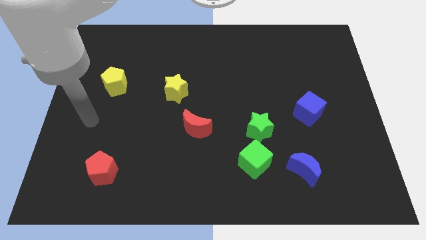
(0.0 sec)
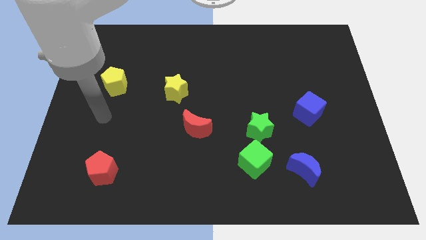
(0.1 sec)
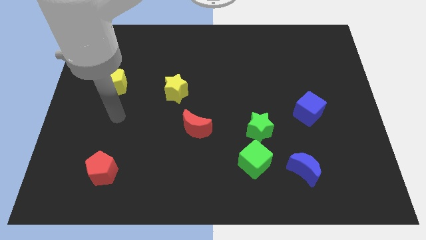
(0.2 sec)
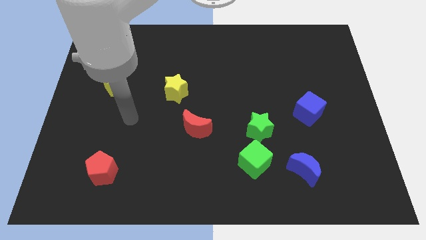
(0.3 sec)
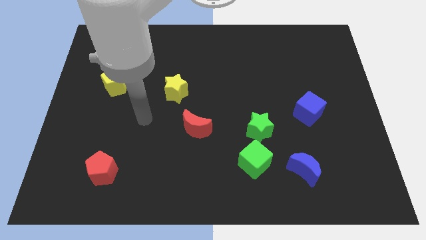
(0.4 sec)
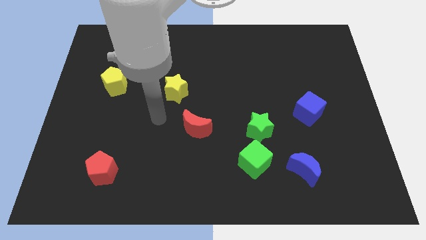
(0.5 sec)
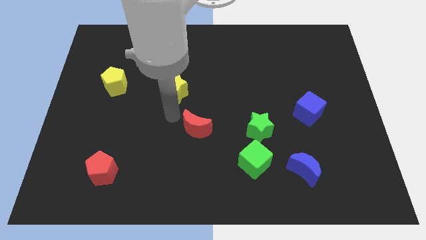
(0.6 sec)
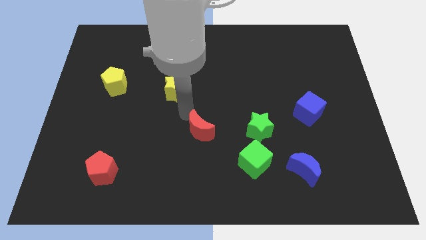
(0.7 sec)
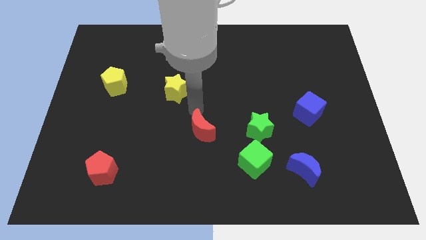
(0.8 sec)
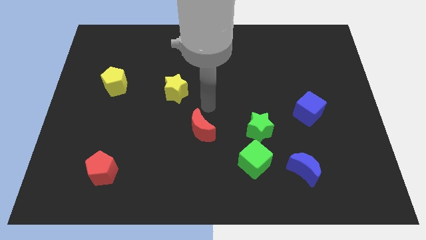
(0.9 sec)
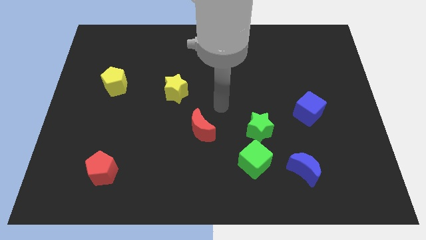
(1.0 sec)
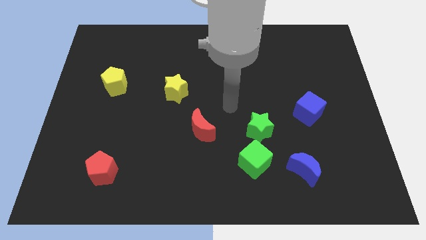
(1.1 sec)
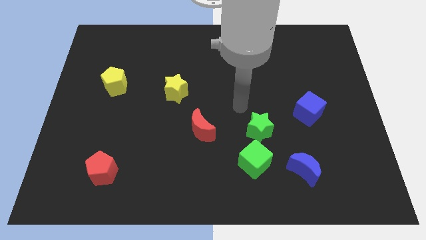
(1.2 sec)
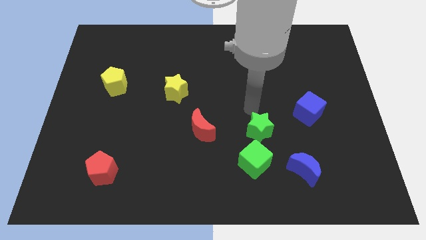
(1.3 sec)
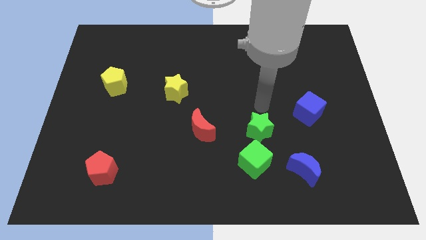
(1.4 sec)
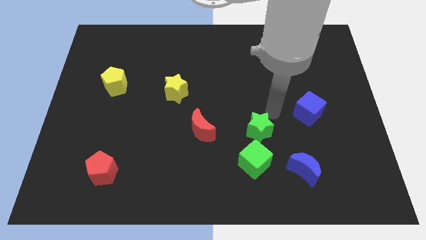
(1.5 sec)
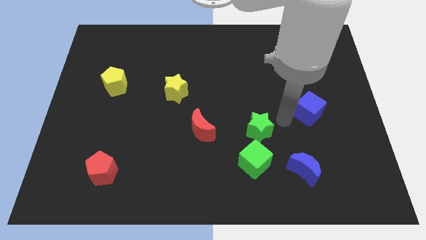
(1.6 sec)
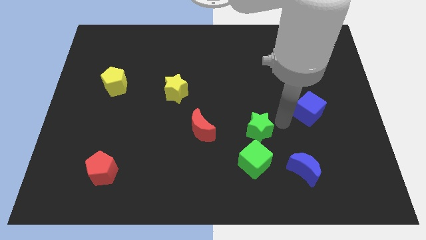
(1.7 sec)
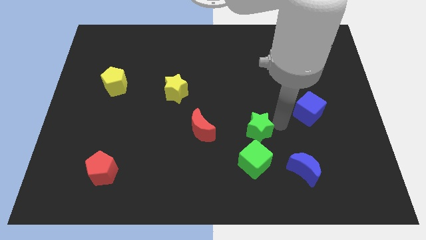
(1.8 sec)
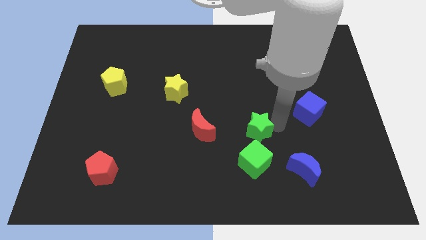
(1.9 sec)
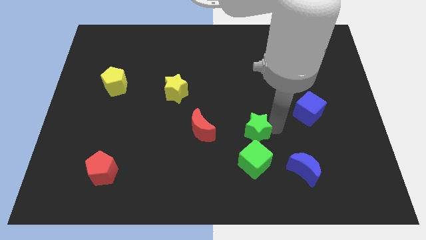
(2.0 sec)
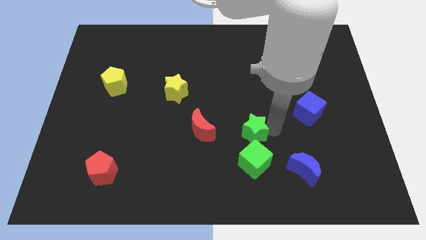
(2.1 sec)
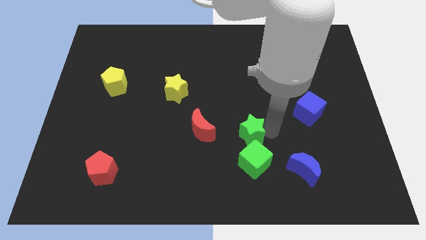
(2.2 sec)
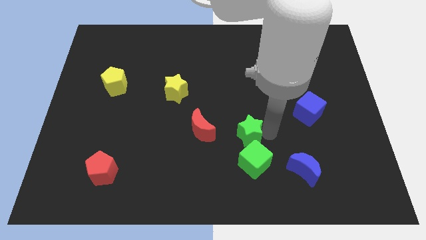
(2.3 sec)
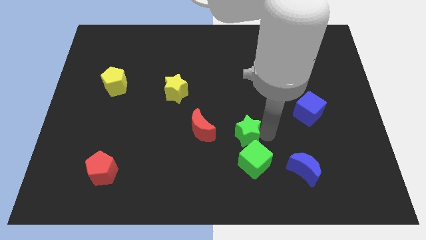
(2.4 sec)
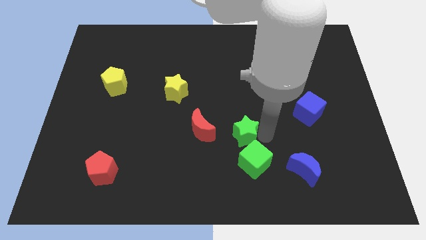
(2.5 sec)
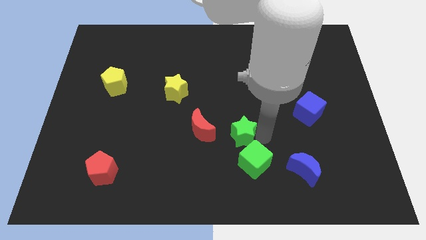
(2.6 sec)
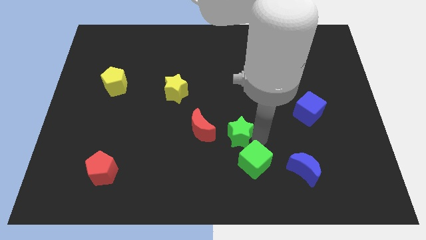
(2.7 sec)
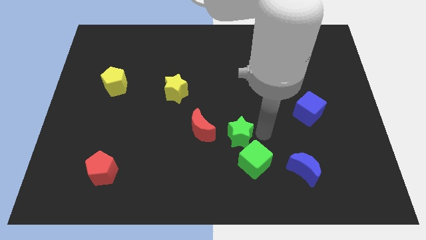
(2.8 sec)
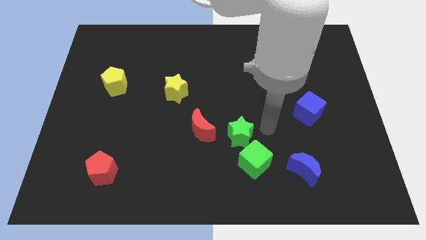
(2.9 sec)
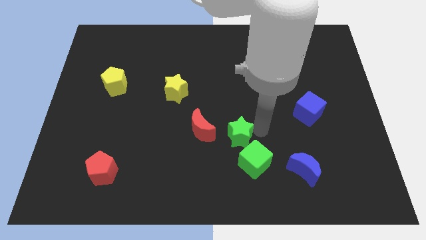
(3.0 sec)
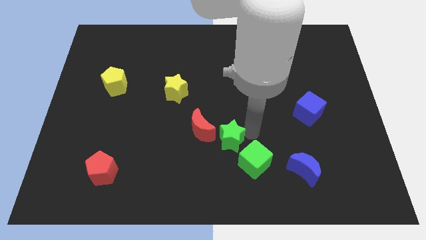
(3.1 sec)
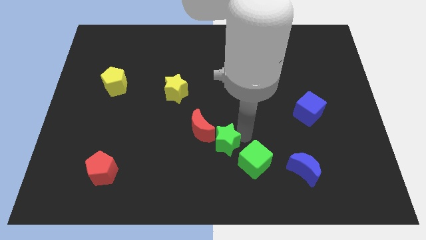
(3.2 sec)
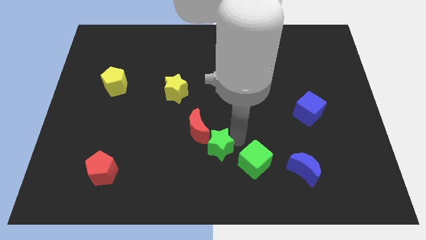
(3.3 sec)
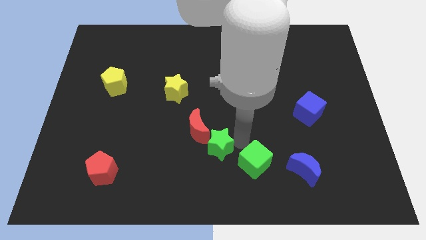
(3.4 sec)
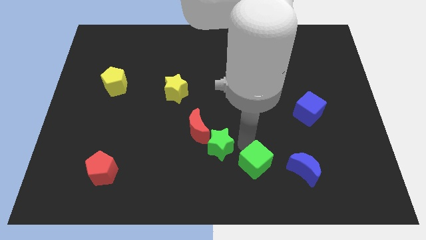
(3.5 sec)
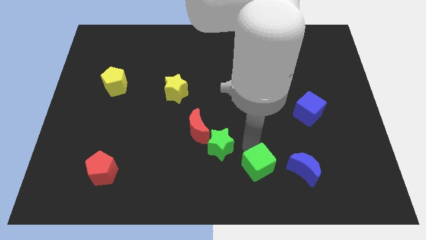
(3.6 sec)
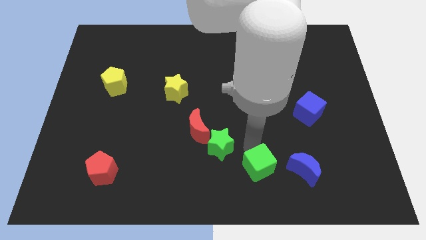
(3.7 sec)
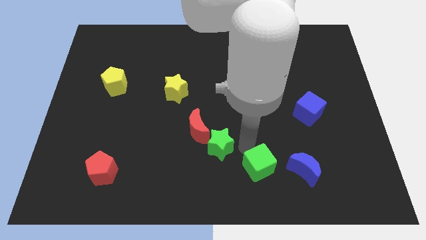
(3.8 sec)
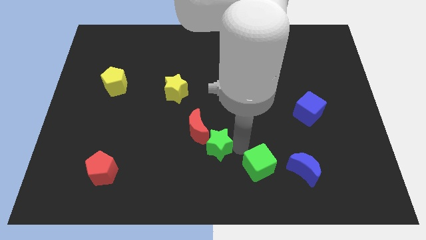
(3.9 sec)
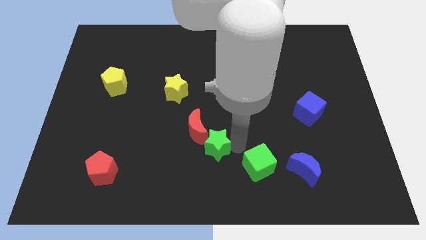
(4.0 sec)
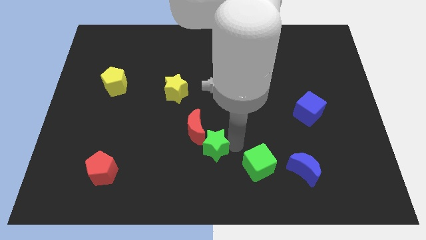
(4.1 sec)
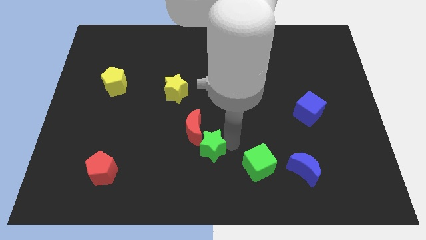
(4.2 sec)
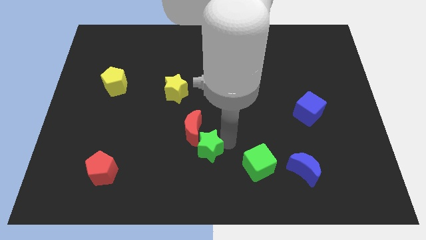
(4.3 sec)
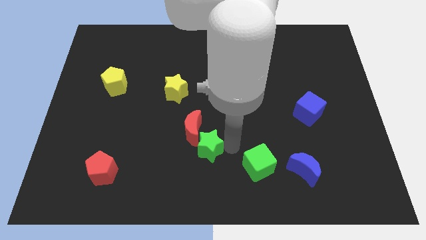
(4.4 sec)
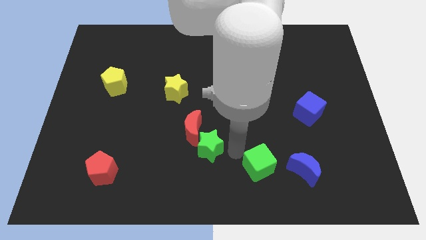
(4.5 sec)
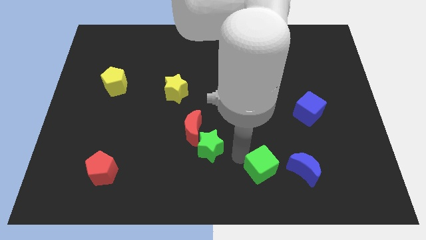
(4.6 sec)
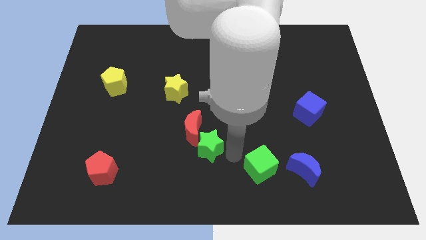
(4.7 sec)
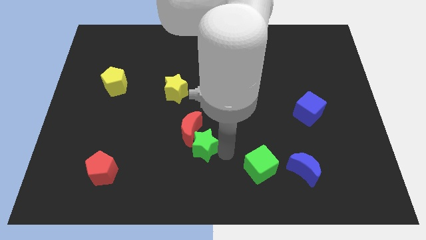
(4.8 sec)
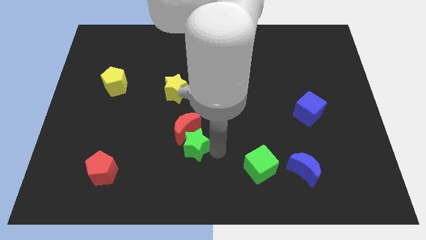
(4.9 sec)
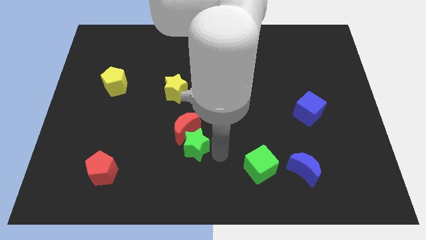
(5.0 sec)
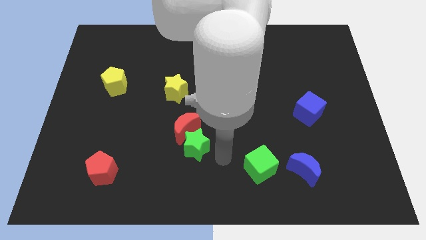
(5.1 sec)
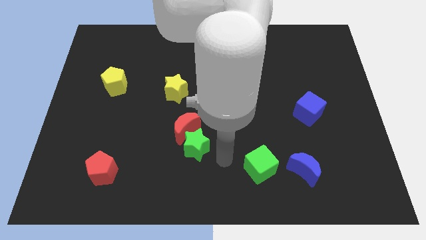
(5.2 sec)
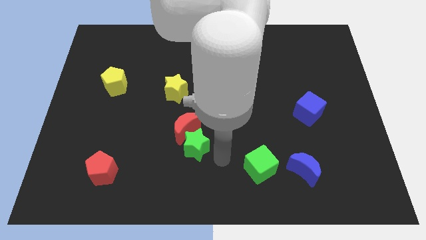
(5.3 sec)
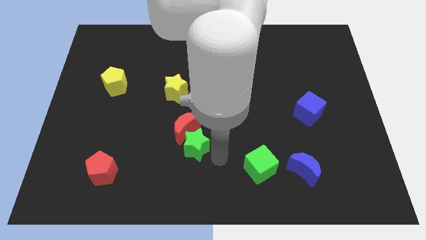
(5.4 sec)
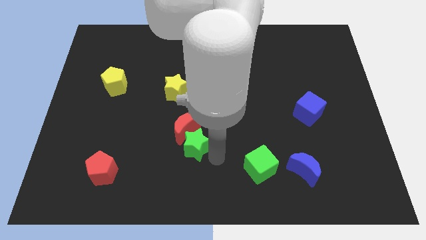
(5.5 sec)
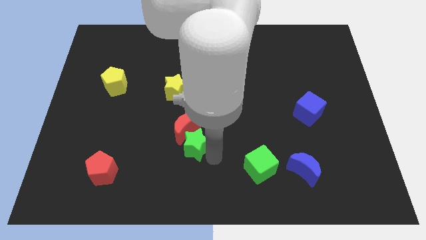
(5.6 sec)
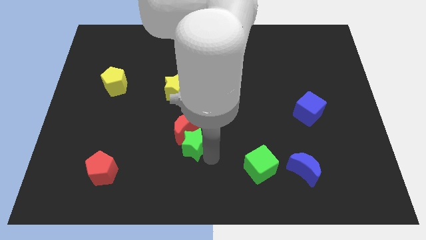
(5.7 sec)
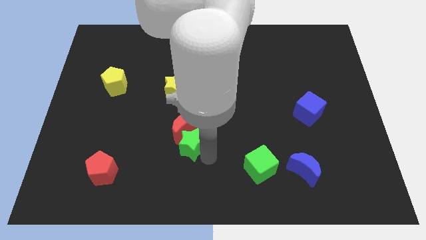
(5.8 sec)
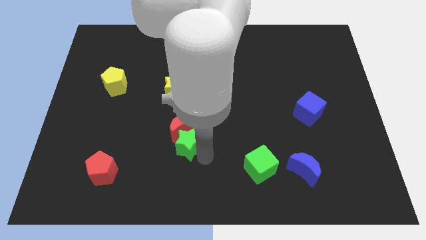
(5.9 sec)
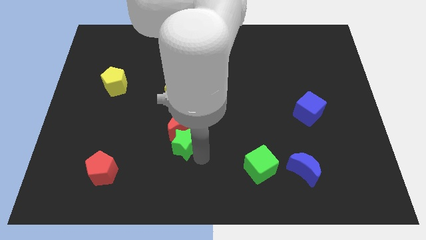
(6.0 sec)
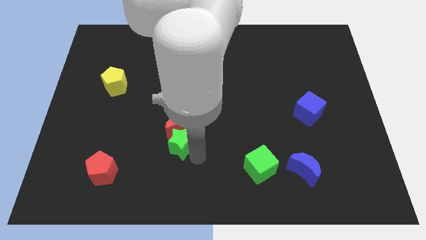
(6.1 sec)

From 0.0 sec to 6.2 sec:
push the green star to the bottom side of the yellow star

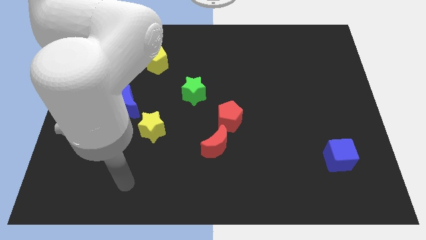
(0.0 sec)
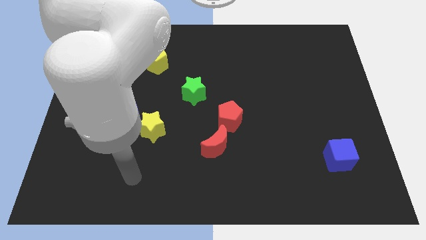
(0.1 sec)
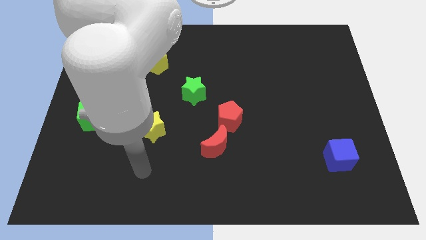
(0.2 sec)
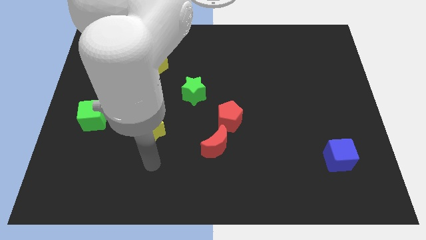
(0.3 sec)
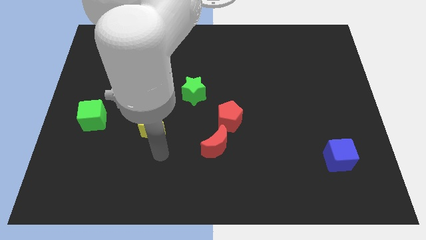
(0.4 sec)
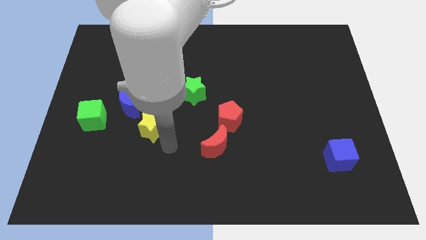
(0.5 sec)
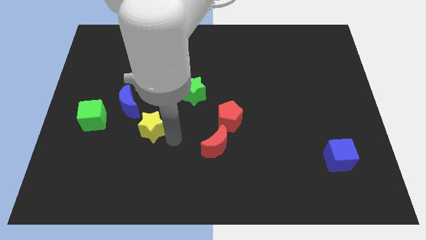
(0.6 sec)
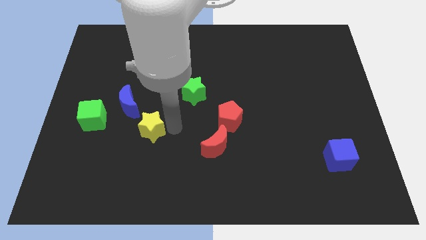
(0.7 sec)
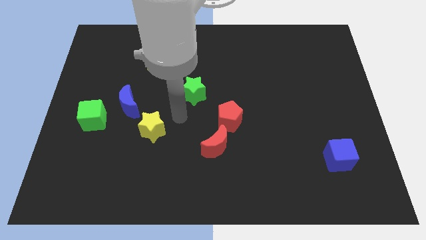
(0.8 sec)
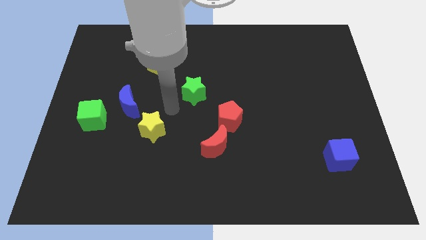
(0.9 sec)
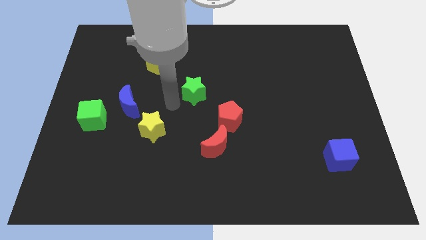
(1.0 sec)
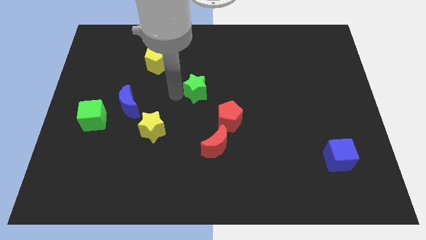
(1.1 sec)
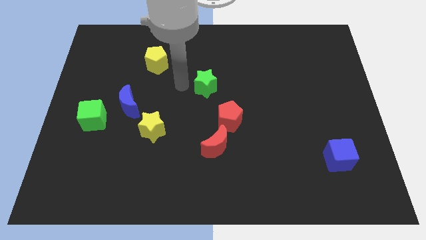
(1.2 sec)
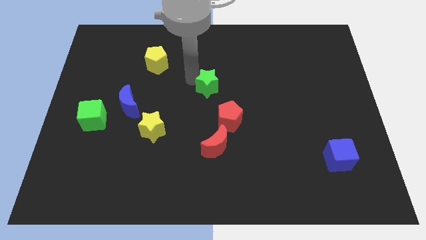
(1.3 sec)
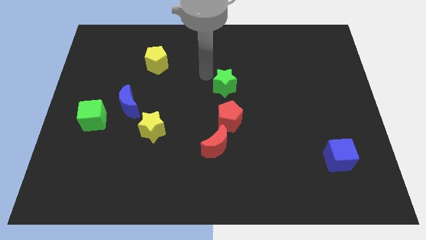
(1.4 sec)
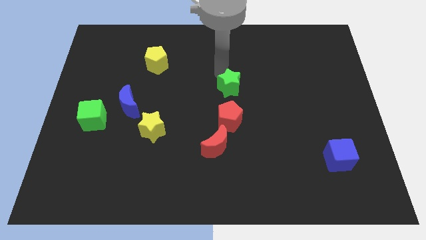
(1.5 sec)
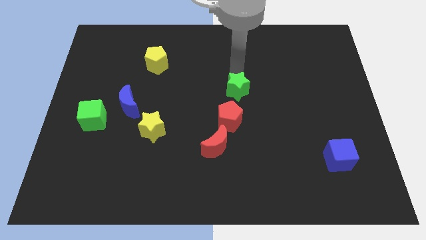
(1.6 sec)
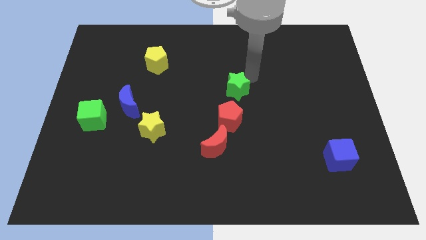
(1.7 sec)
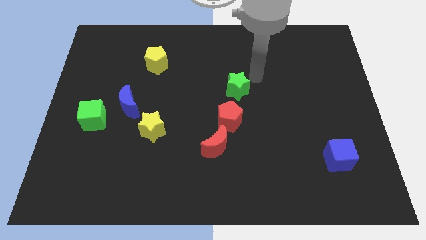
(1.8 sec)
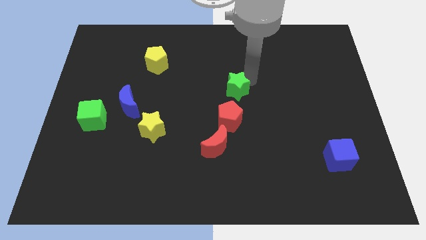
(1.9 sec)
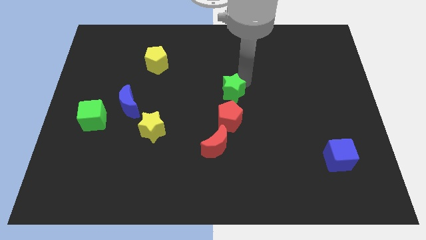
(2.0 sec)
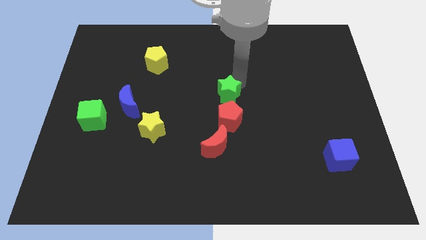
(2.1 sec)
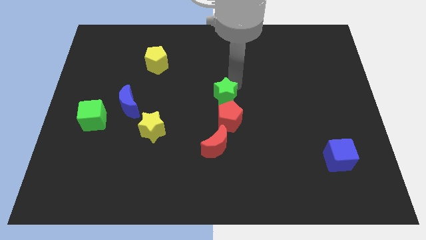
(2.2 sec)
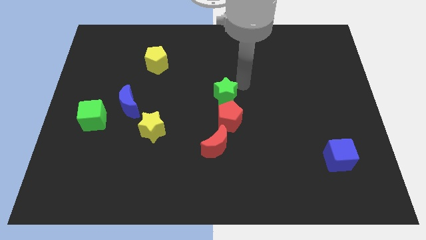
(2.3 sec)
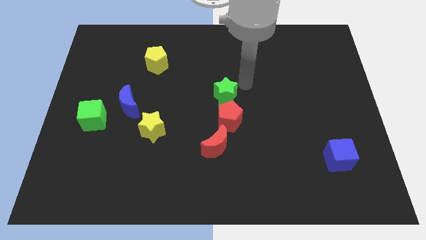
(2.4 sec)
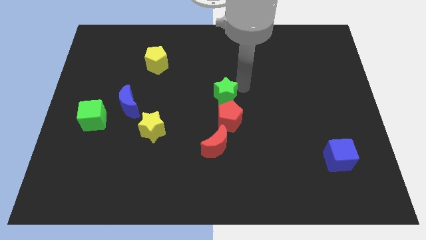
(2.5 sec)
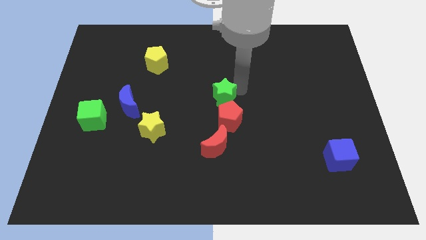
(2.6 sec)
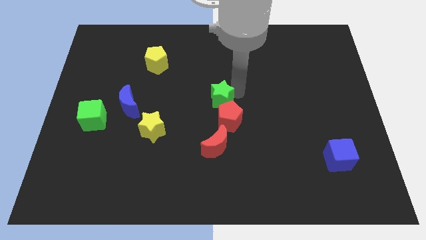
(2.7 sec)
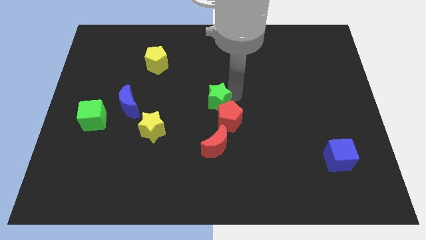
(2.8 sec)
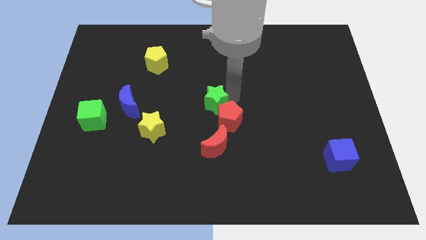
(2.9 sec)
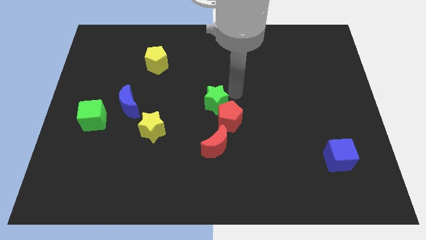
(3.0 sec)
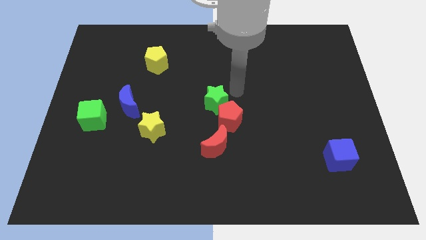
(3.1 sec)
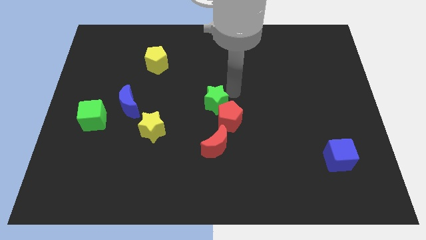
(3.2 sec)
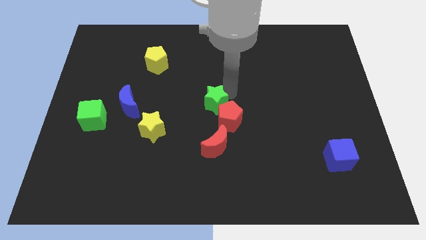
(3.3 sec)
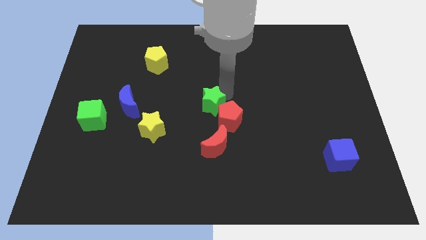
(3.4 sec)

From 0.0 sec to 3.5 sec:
slide the green star left of the red pentagon
